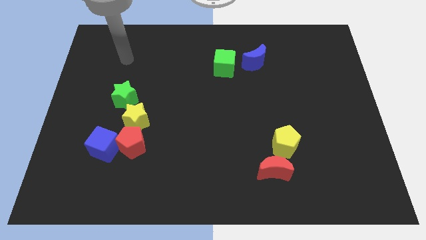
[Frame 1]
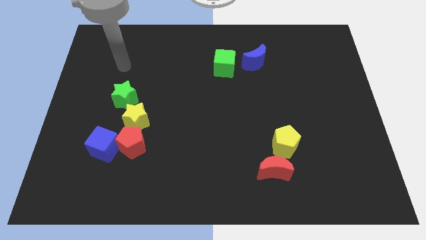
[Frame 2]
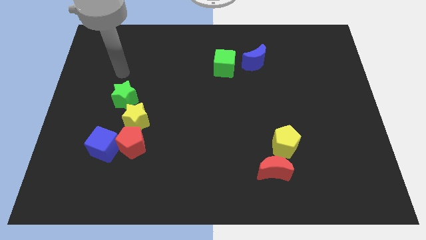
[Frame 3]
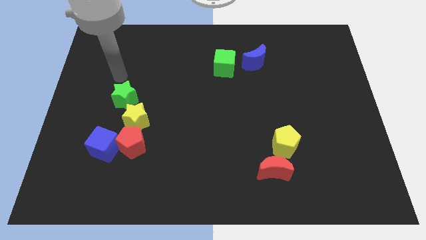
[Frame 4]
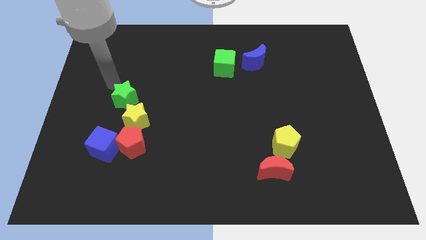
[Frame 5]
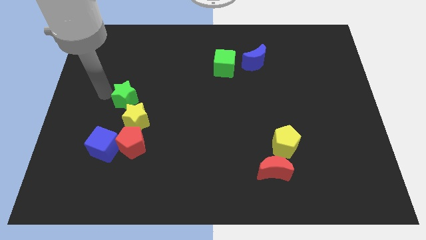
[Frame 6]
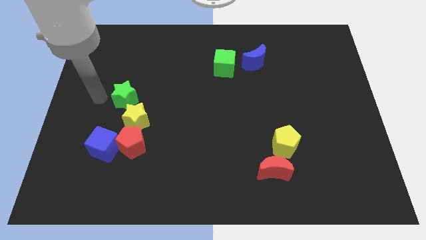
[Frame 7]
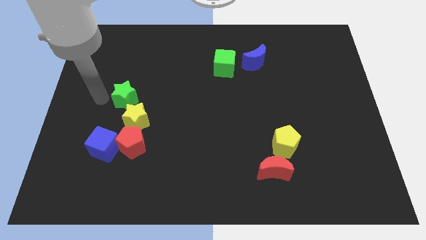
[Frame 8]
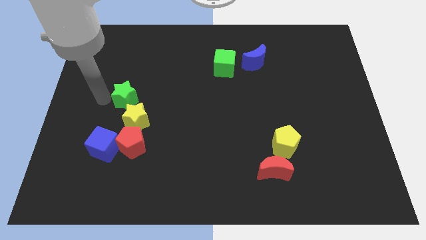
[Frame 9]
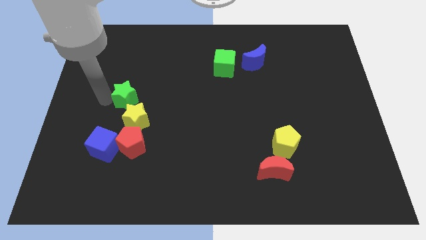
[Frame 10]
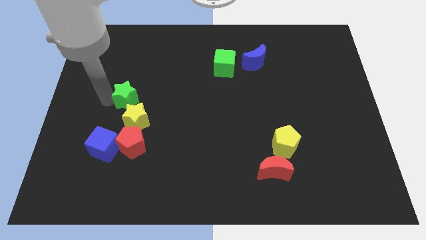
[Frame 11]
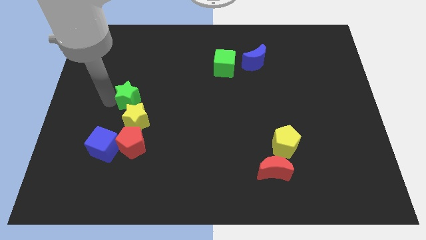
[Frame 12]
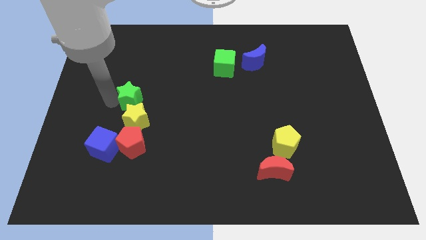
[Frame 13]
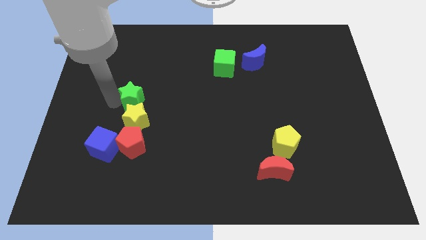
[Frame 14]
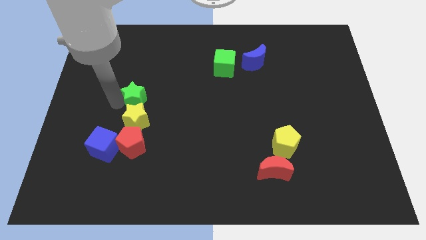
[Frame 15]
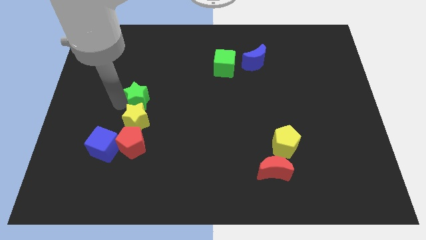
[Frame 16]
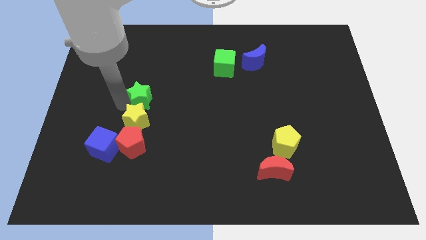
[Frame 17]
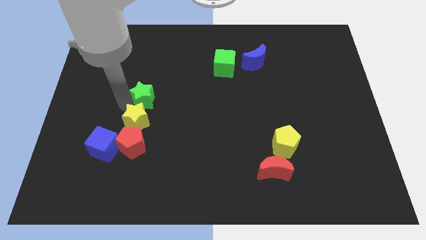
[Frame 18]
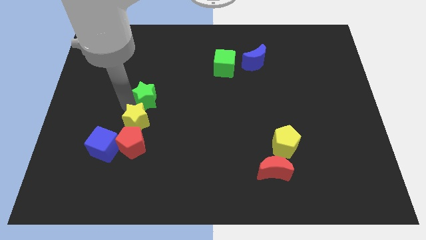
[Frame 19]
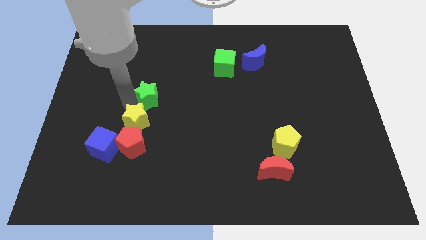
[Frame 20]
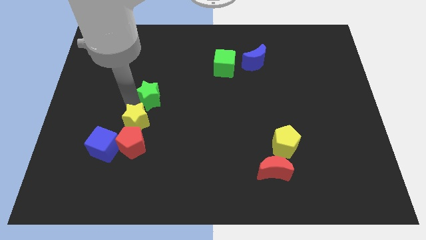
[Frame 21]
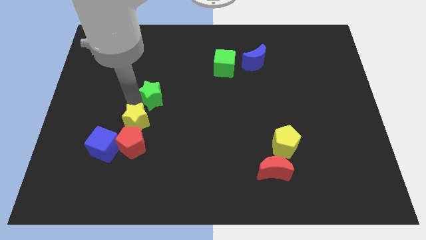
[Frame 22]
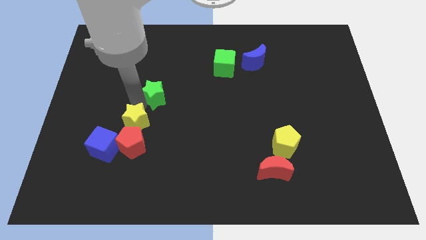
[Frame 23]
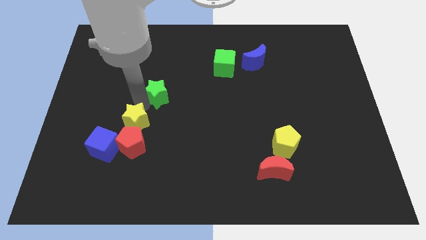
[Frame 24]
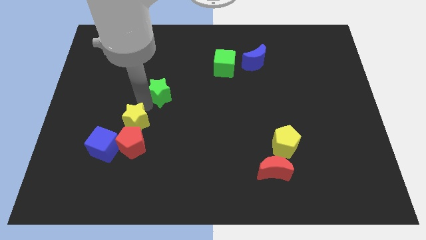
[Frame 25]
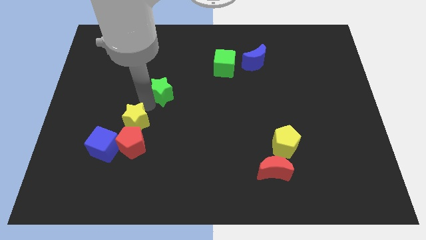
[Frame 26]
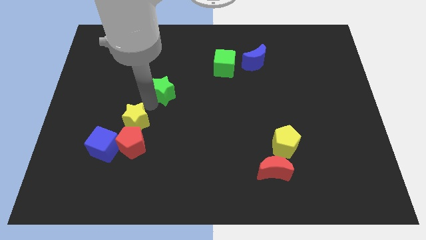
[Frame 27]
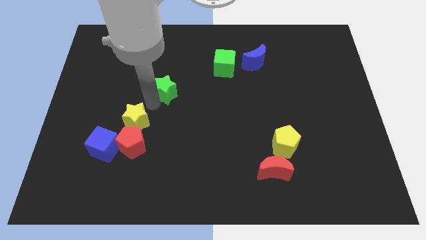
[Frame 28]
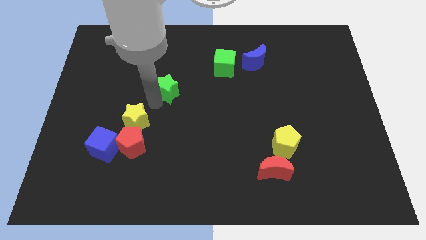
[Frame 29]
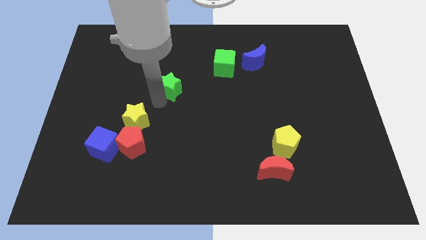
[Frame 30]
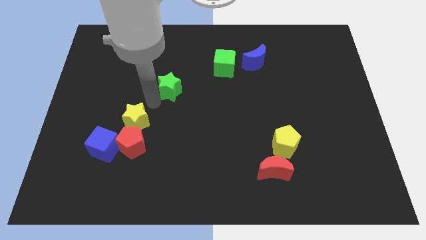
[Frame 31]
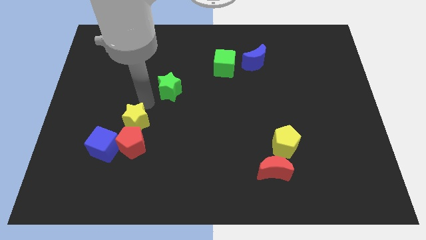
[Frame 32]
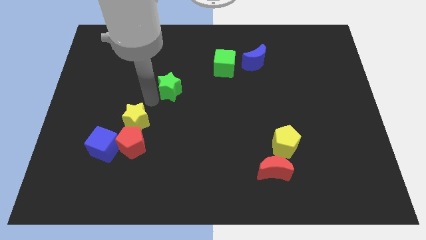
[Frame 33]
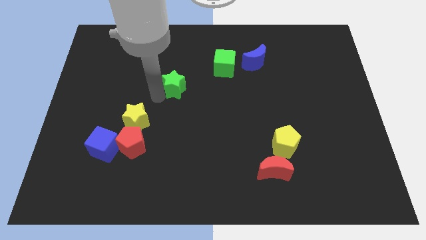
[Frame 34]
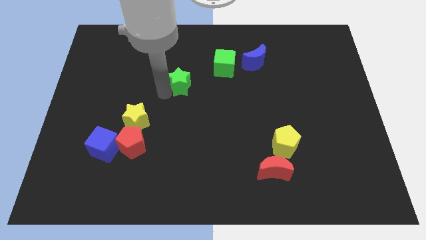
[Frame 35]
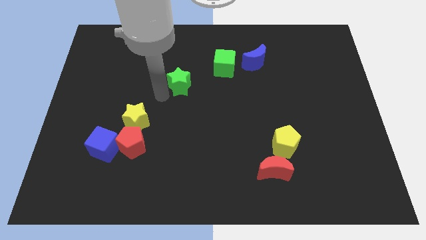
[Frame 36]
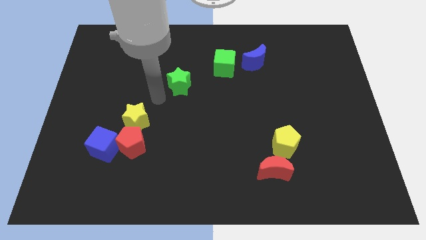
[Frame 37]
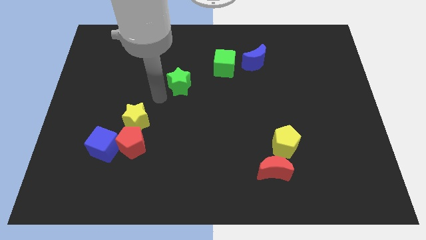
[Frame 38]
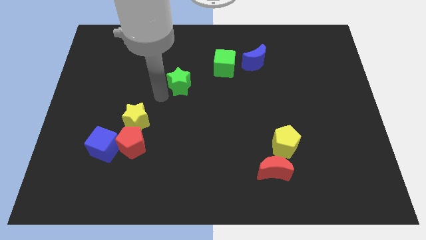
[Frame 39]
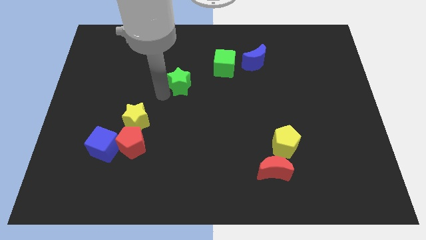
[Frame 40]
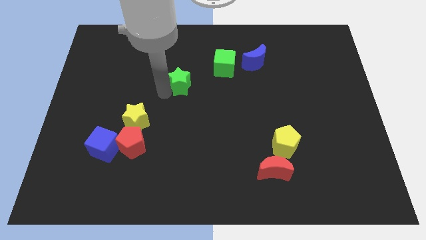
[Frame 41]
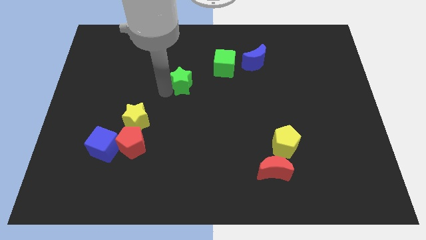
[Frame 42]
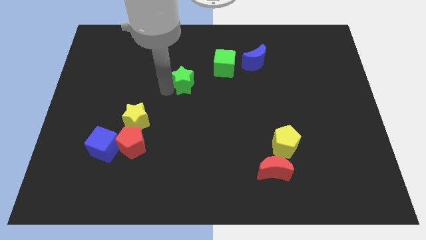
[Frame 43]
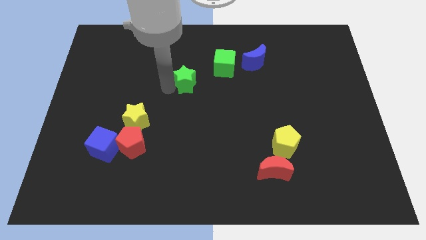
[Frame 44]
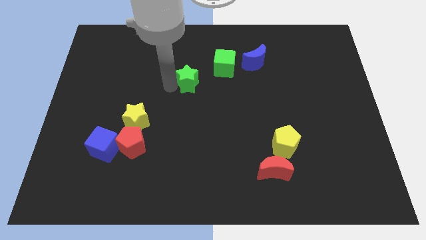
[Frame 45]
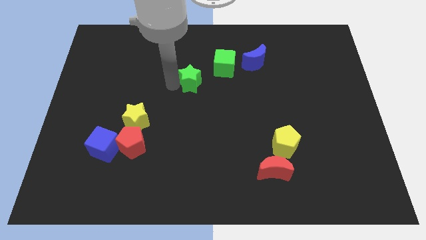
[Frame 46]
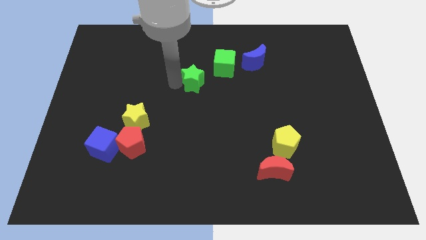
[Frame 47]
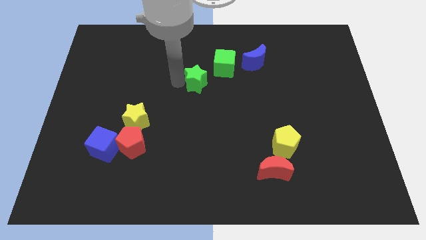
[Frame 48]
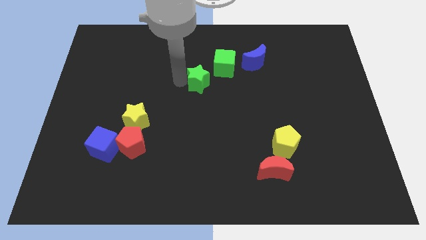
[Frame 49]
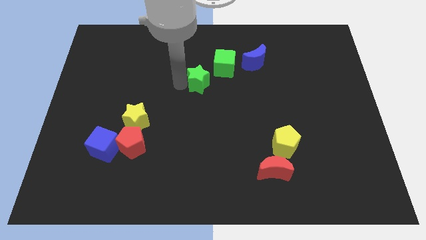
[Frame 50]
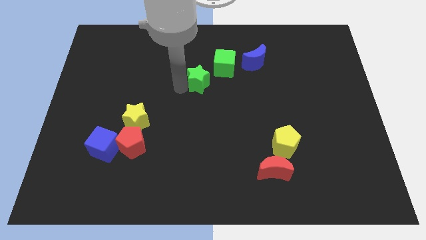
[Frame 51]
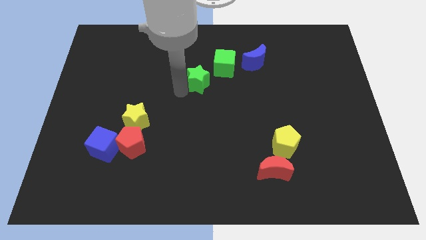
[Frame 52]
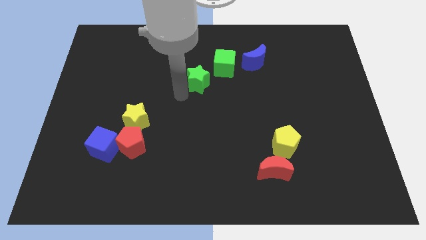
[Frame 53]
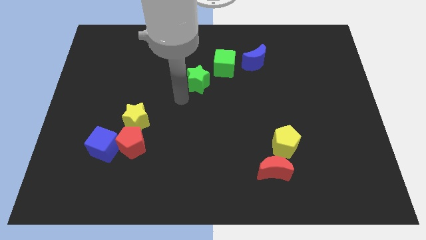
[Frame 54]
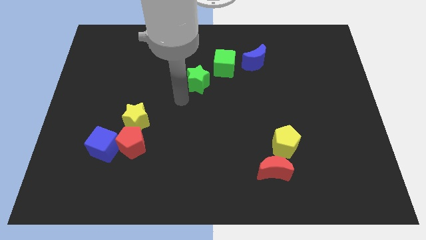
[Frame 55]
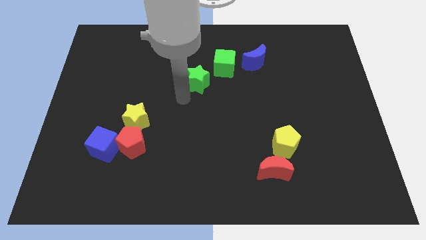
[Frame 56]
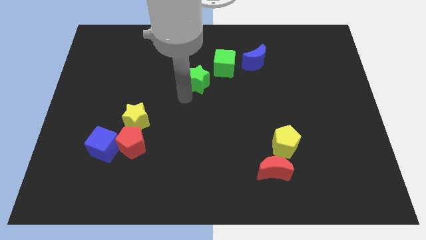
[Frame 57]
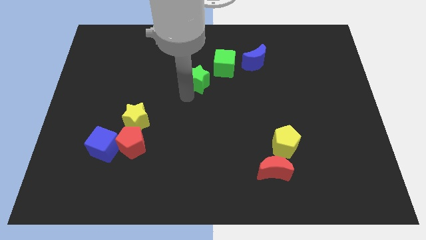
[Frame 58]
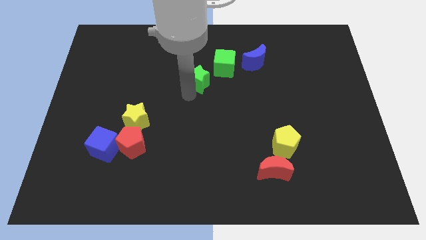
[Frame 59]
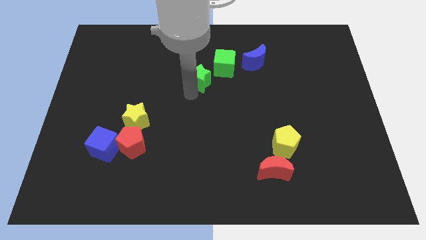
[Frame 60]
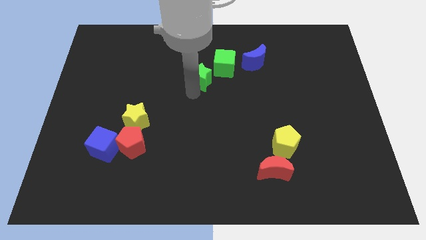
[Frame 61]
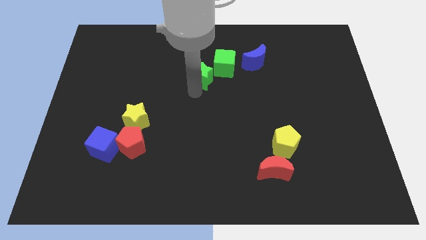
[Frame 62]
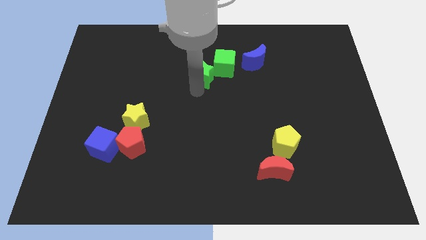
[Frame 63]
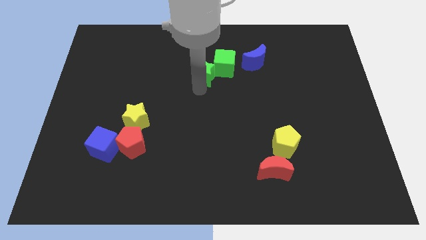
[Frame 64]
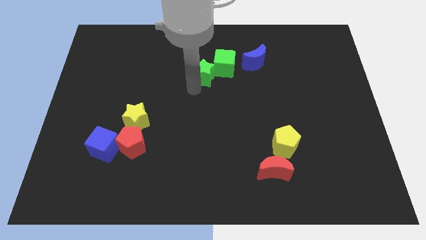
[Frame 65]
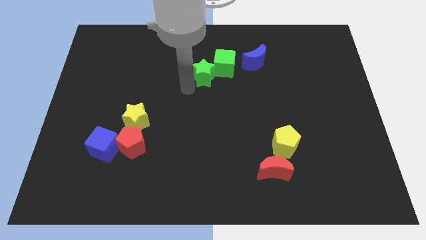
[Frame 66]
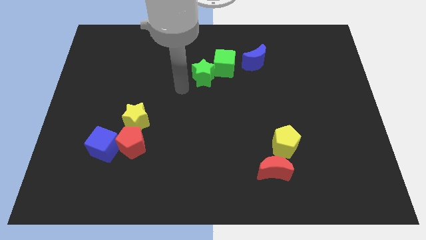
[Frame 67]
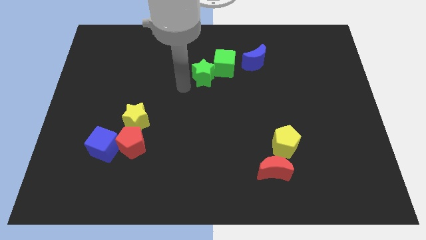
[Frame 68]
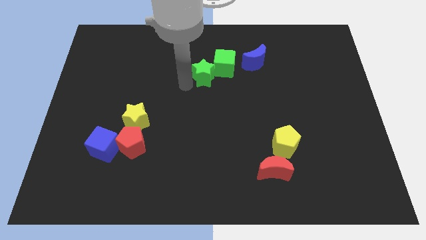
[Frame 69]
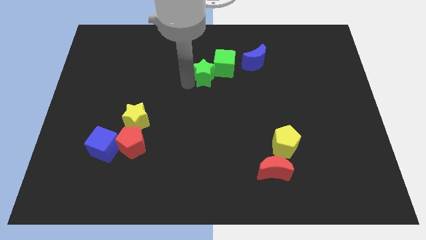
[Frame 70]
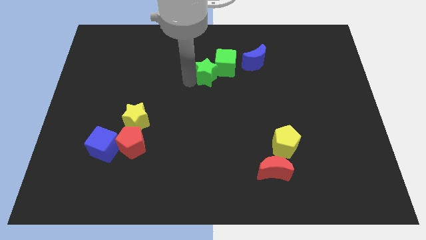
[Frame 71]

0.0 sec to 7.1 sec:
slide the green star close to the green cube
